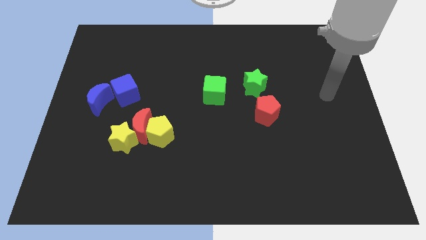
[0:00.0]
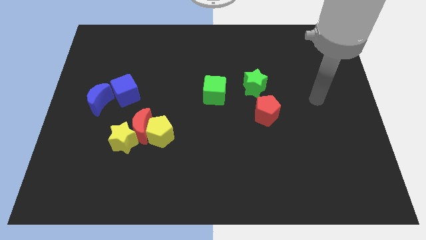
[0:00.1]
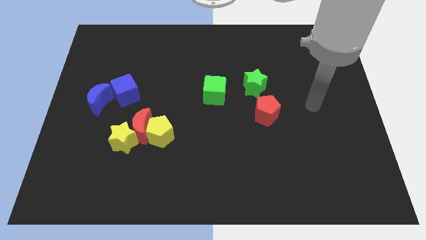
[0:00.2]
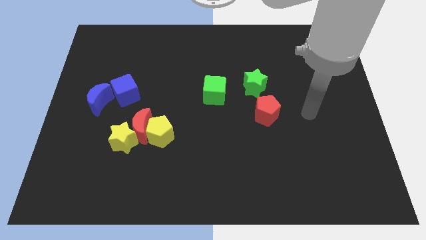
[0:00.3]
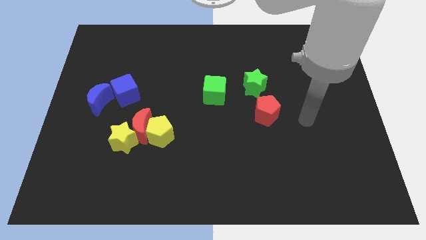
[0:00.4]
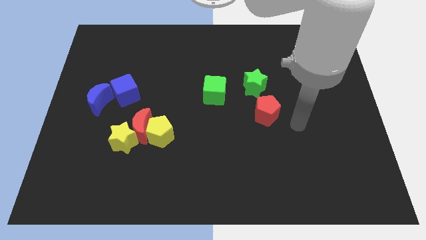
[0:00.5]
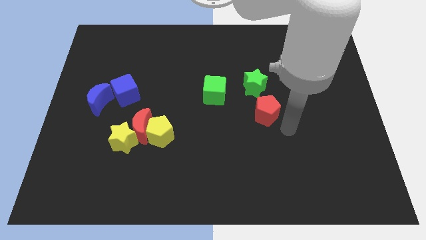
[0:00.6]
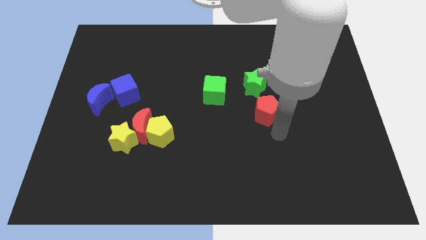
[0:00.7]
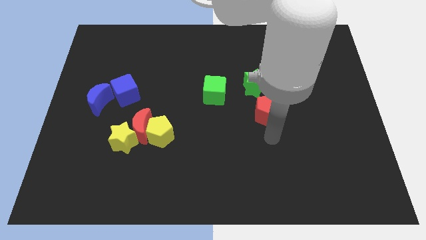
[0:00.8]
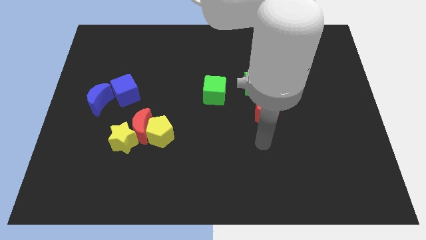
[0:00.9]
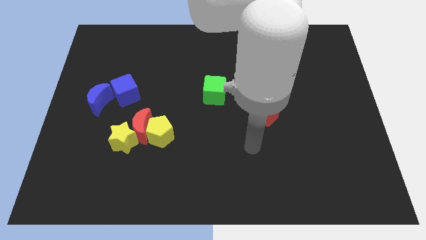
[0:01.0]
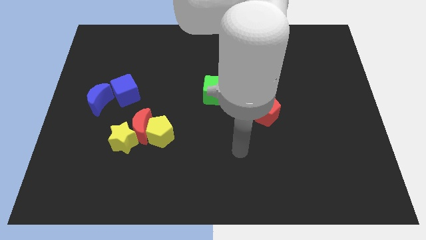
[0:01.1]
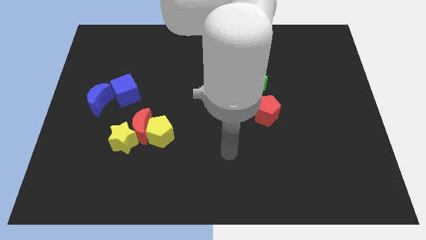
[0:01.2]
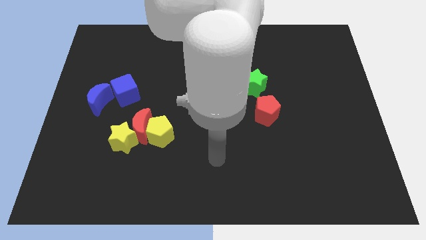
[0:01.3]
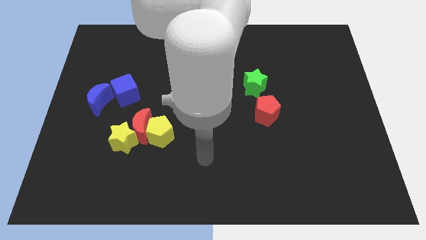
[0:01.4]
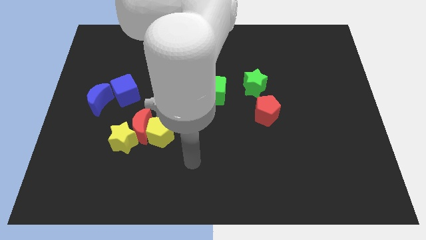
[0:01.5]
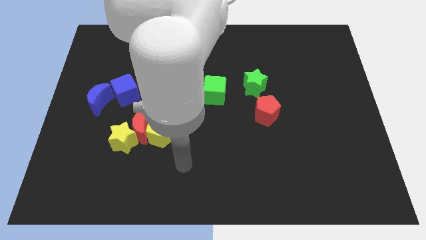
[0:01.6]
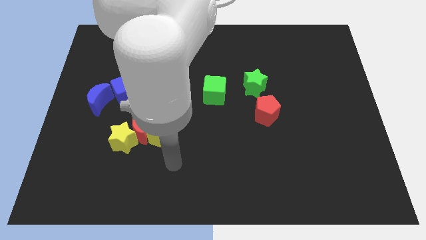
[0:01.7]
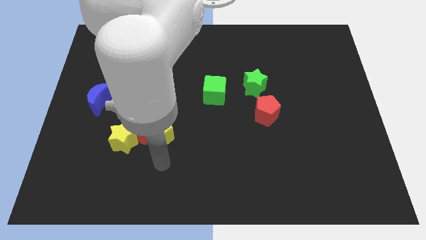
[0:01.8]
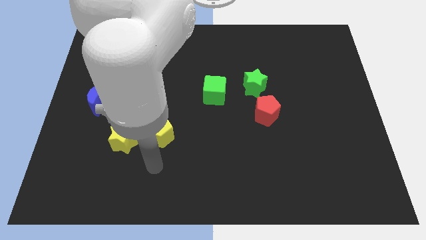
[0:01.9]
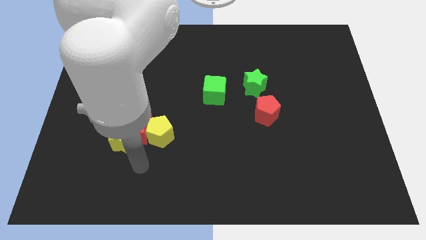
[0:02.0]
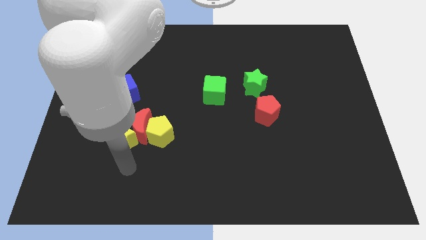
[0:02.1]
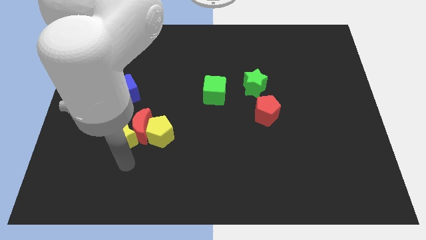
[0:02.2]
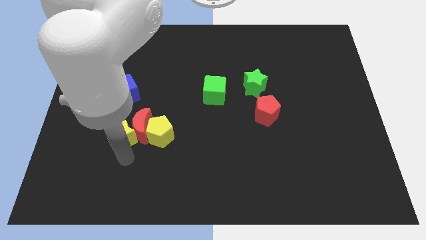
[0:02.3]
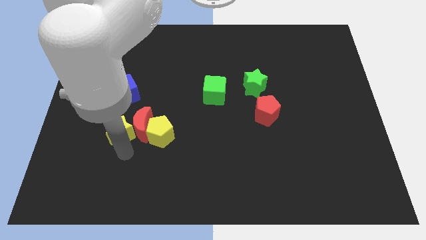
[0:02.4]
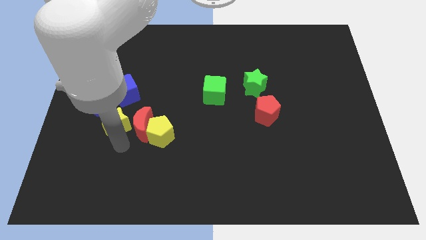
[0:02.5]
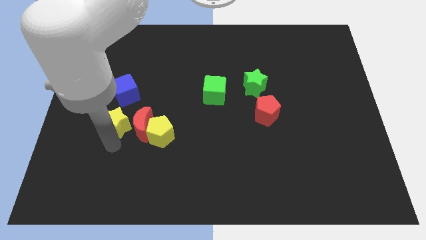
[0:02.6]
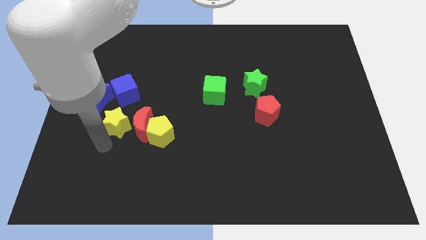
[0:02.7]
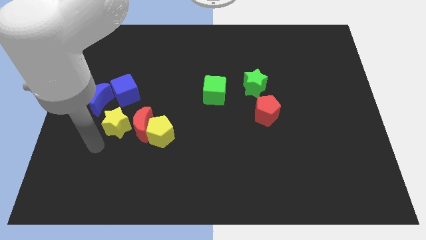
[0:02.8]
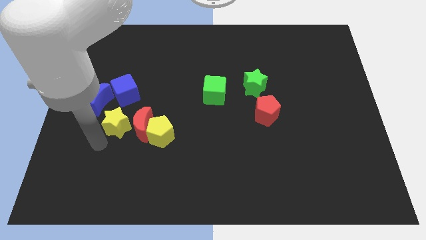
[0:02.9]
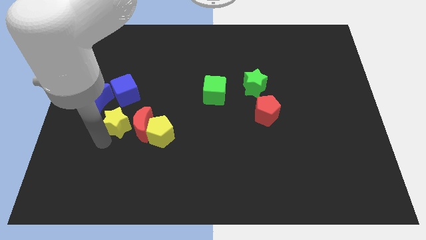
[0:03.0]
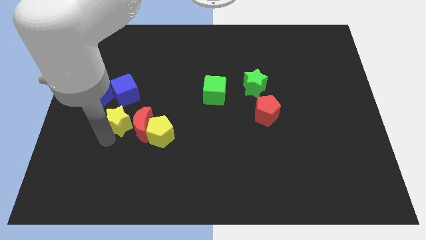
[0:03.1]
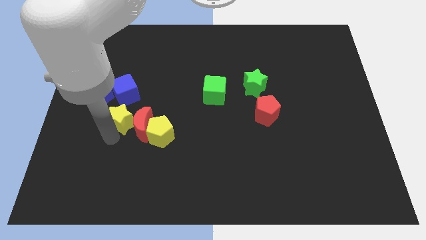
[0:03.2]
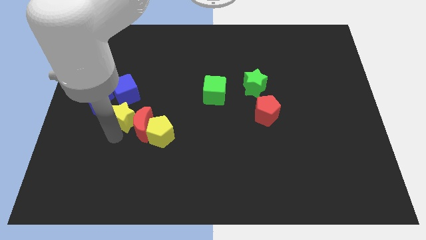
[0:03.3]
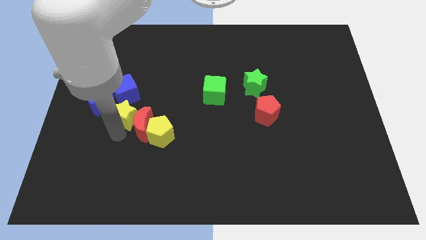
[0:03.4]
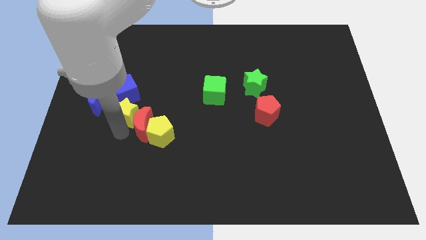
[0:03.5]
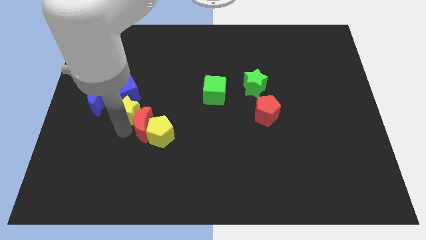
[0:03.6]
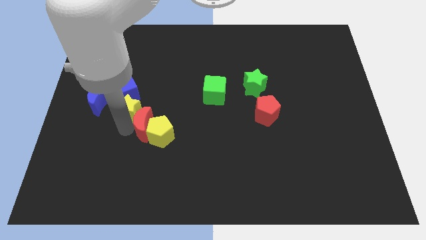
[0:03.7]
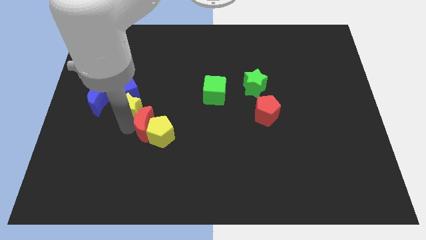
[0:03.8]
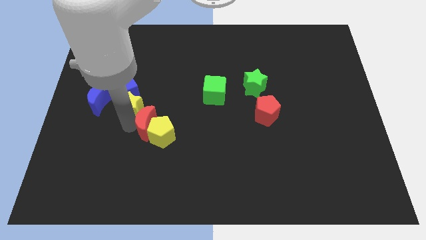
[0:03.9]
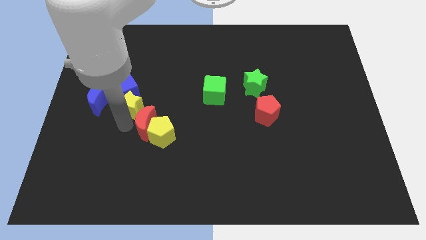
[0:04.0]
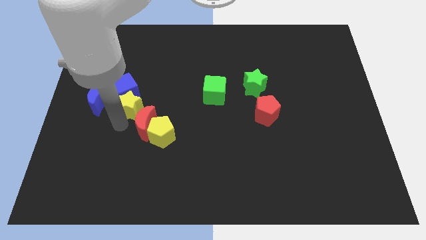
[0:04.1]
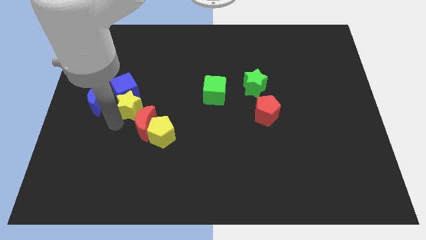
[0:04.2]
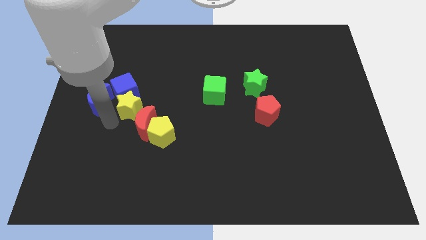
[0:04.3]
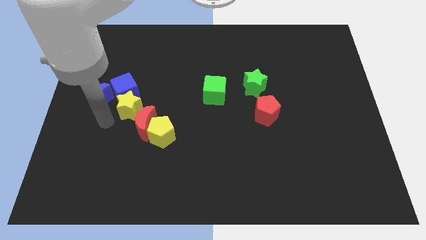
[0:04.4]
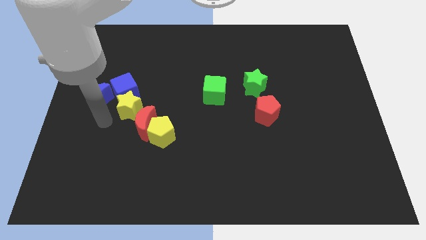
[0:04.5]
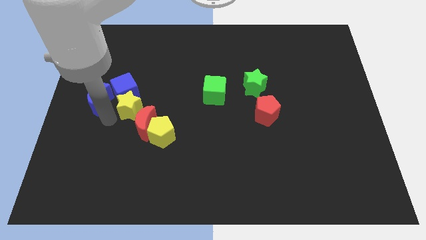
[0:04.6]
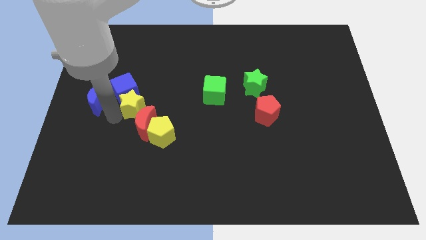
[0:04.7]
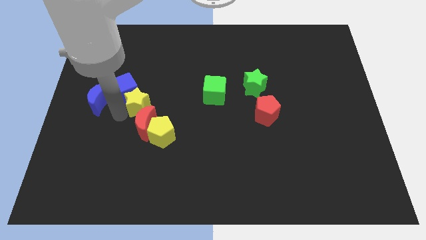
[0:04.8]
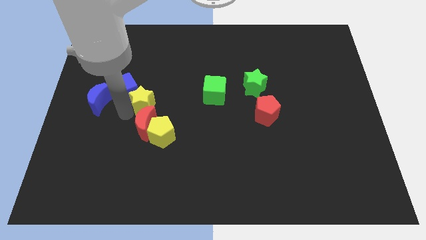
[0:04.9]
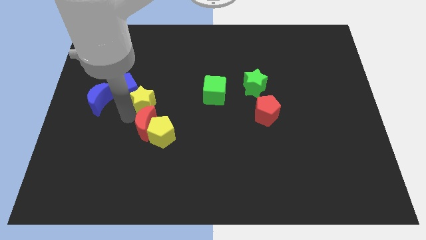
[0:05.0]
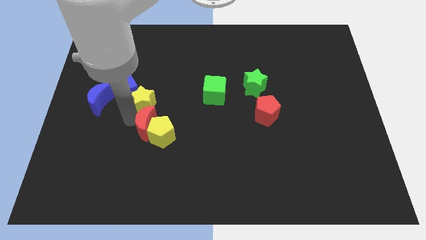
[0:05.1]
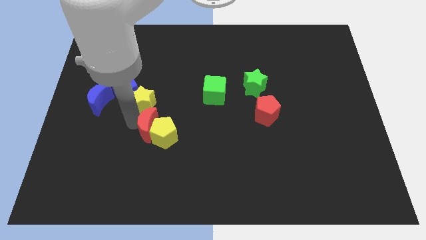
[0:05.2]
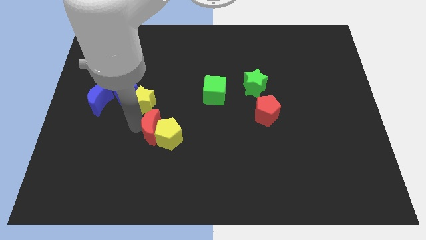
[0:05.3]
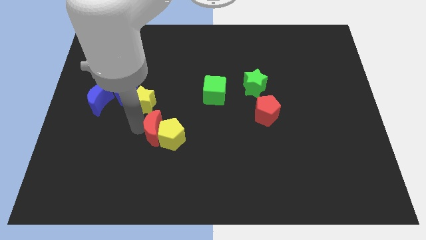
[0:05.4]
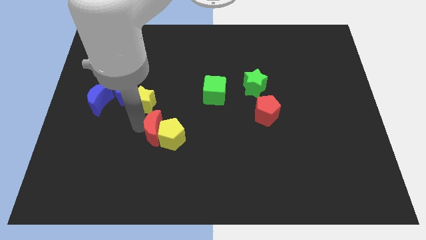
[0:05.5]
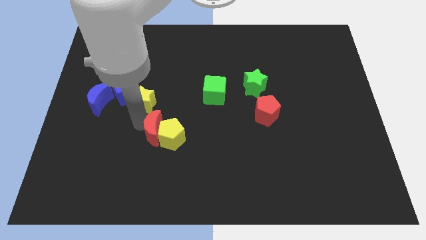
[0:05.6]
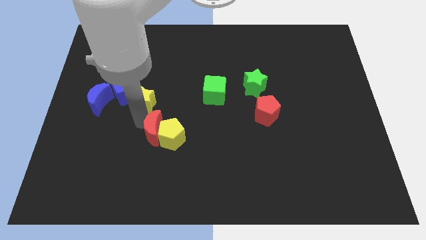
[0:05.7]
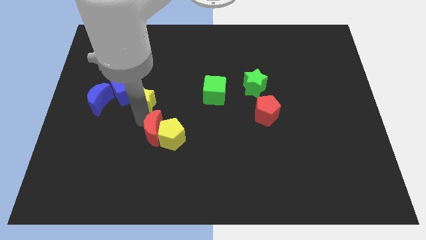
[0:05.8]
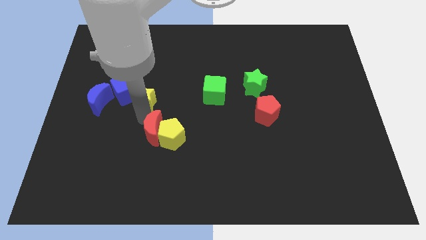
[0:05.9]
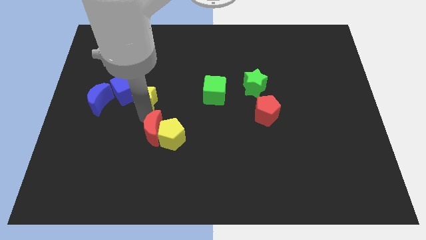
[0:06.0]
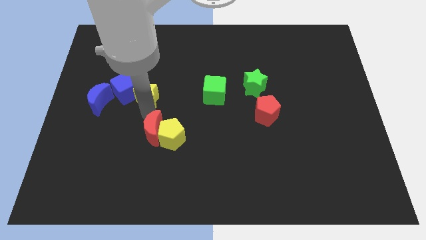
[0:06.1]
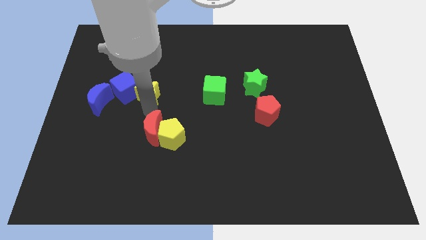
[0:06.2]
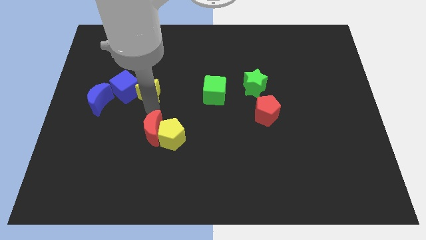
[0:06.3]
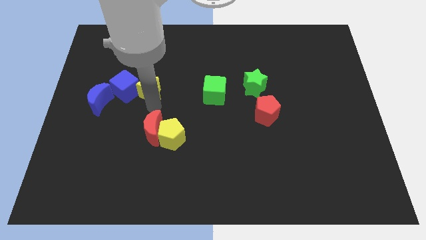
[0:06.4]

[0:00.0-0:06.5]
push the yellow star to the top right side of the blue cube

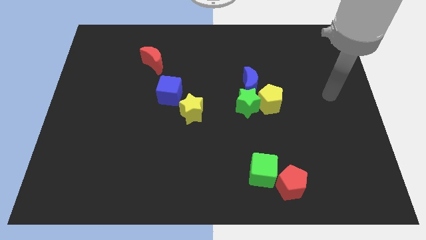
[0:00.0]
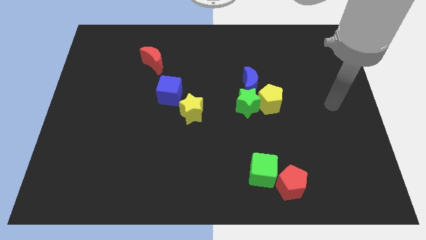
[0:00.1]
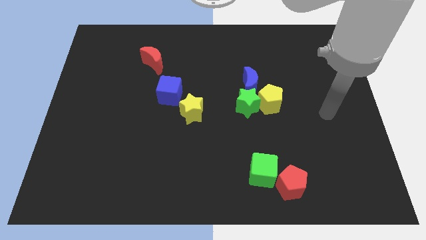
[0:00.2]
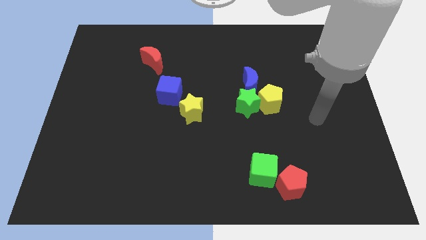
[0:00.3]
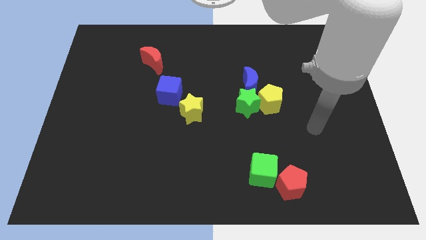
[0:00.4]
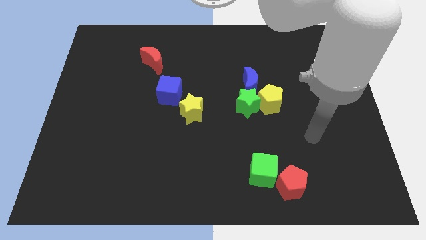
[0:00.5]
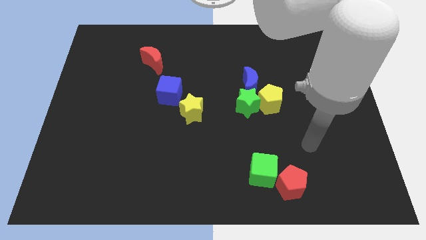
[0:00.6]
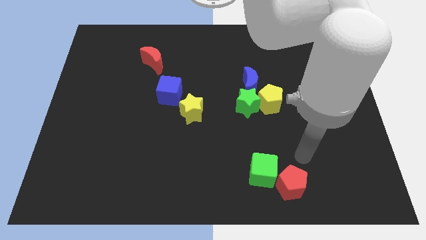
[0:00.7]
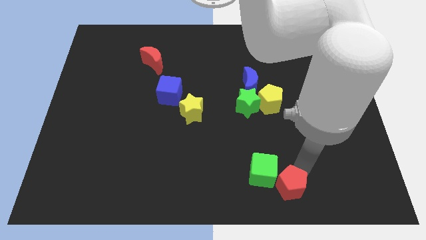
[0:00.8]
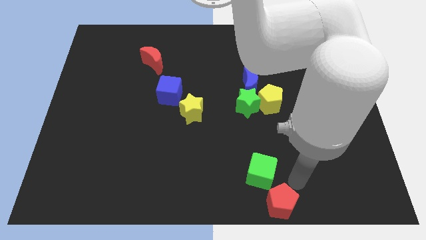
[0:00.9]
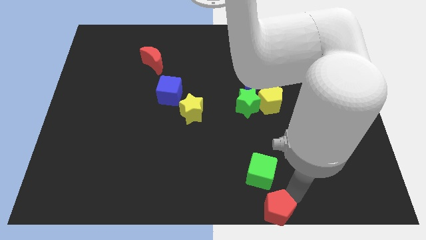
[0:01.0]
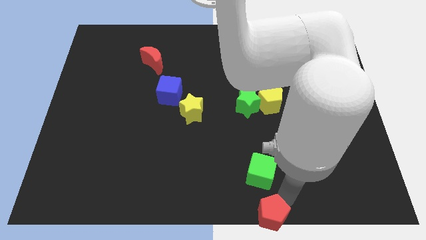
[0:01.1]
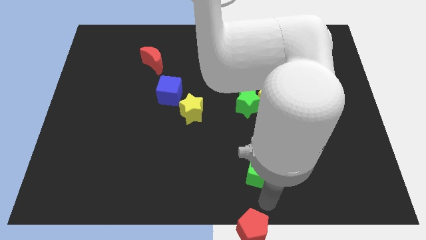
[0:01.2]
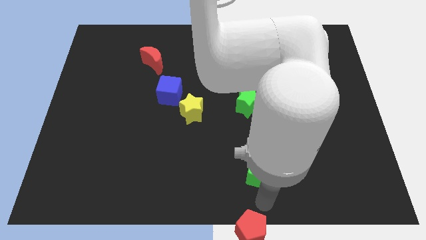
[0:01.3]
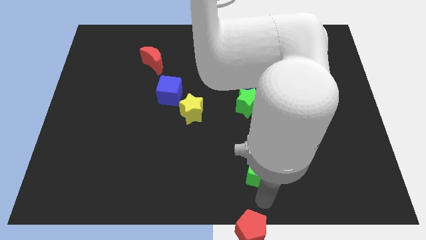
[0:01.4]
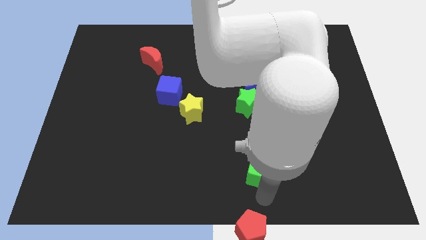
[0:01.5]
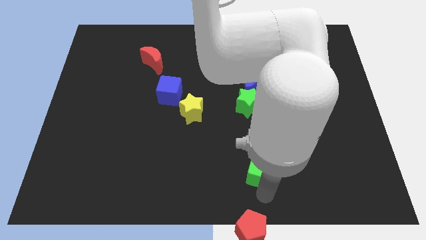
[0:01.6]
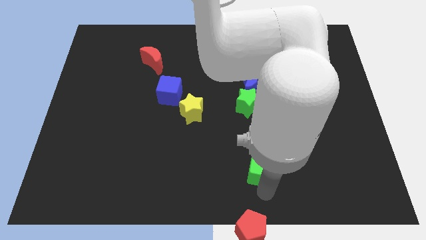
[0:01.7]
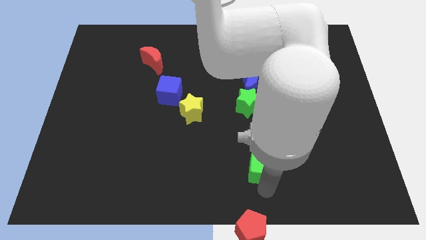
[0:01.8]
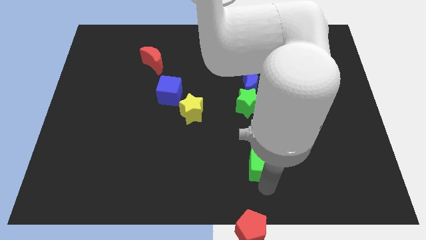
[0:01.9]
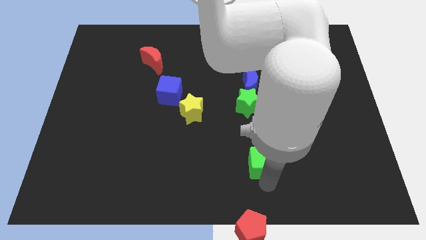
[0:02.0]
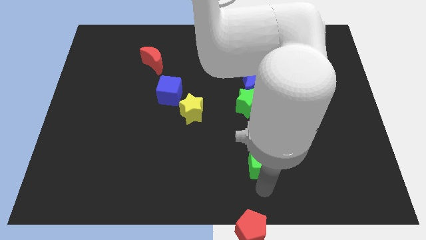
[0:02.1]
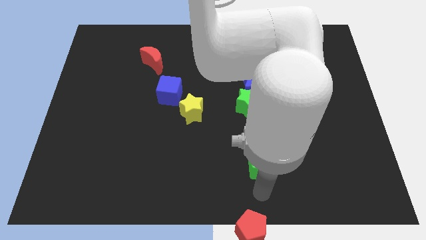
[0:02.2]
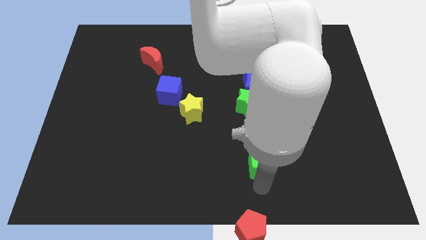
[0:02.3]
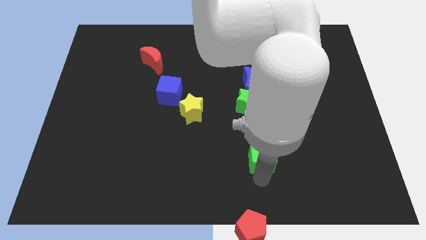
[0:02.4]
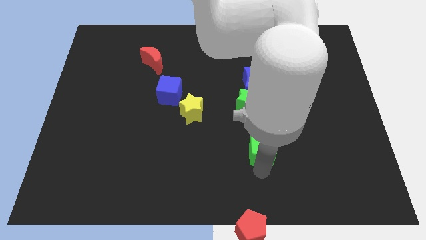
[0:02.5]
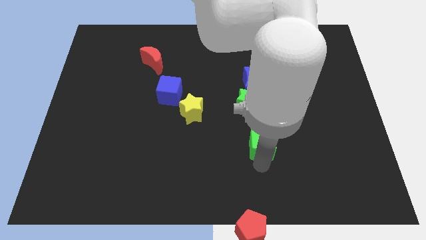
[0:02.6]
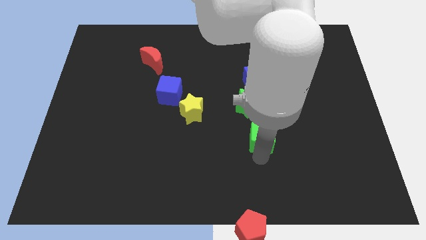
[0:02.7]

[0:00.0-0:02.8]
put the green cube to the bottom right side of the green star
